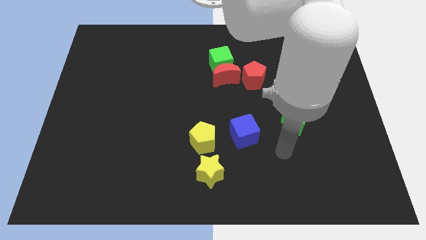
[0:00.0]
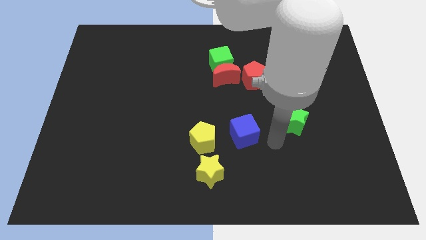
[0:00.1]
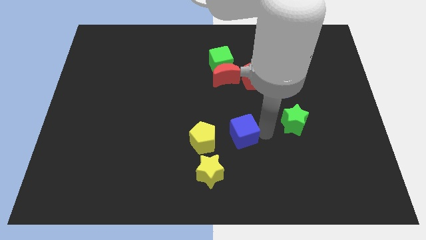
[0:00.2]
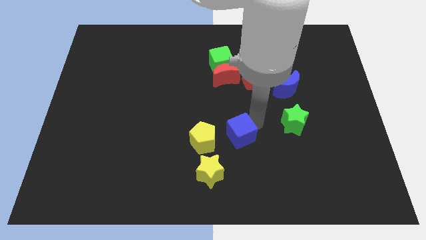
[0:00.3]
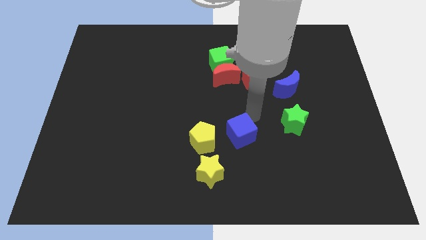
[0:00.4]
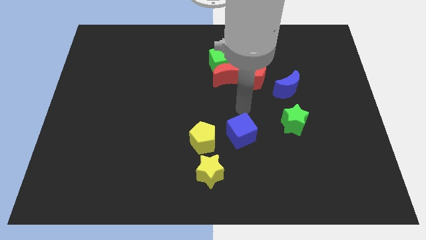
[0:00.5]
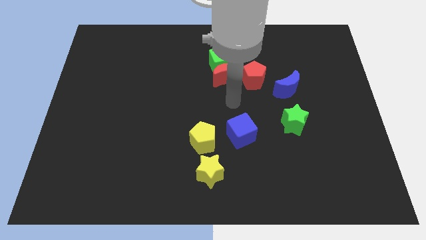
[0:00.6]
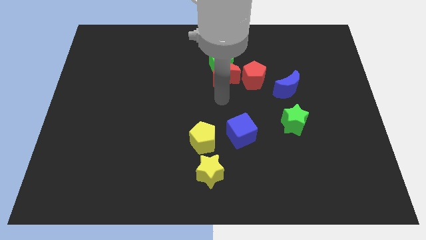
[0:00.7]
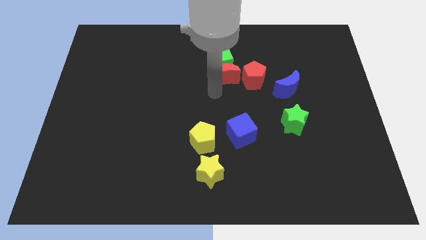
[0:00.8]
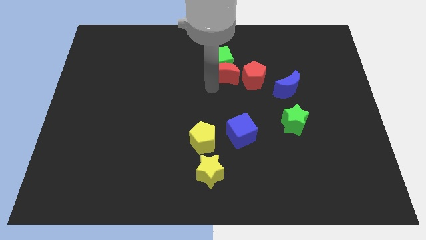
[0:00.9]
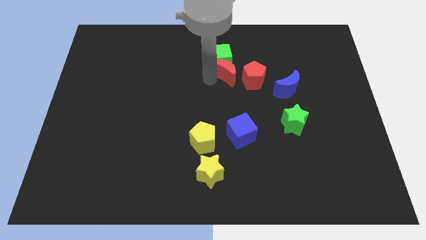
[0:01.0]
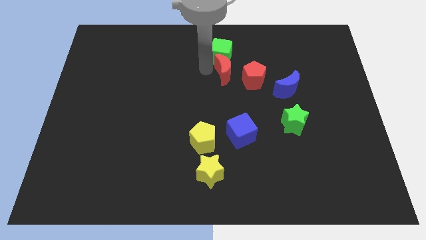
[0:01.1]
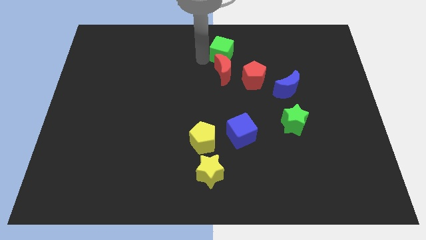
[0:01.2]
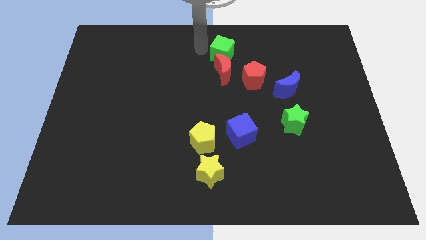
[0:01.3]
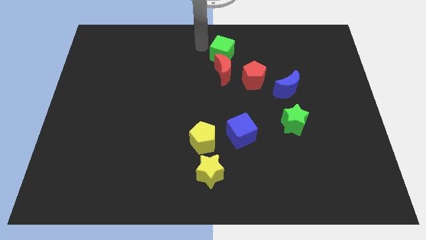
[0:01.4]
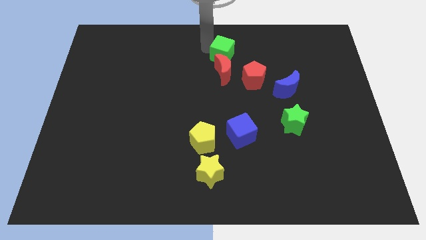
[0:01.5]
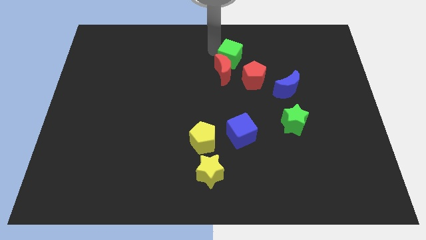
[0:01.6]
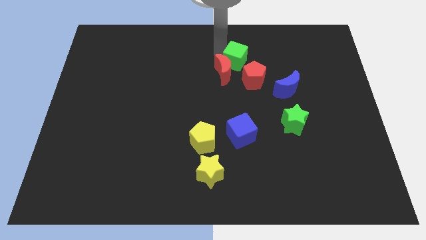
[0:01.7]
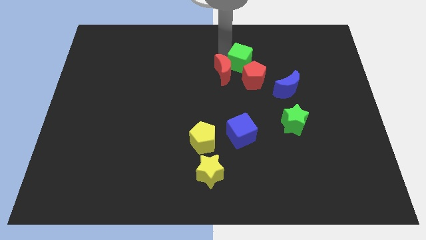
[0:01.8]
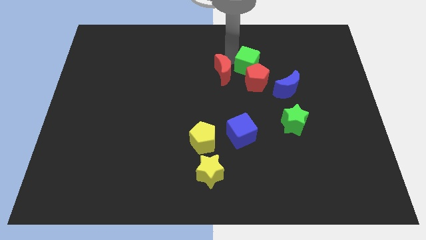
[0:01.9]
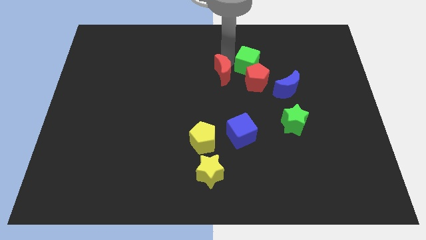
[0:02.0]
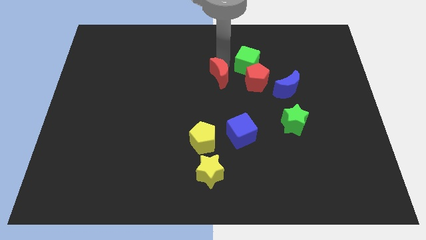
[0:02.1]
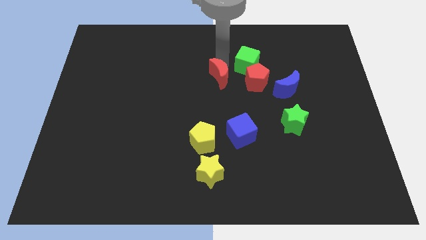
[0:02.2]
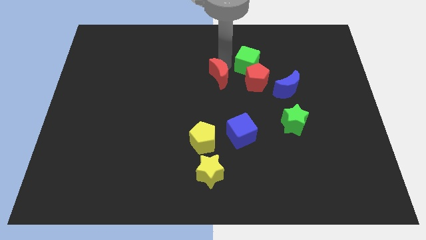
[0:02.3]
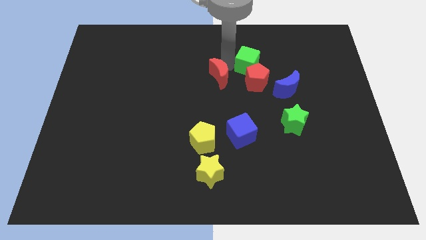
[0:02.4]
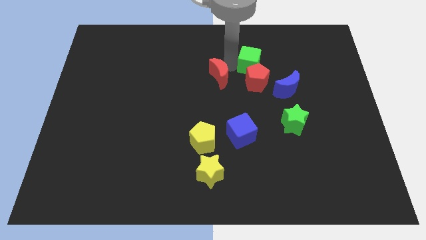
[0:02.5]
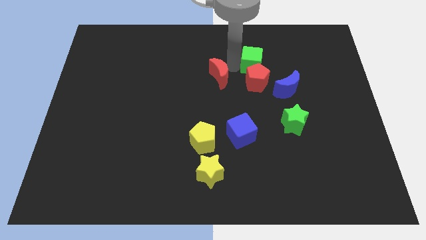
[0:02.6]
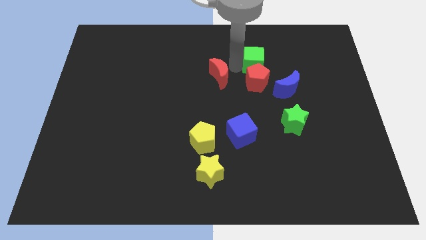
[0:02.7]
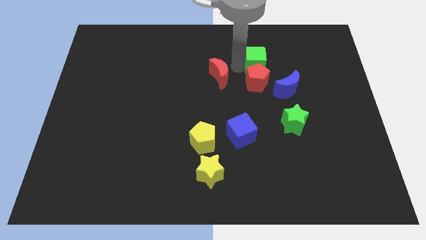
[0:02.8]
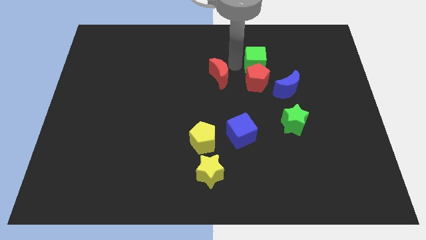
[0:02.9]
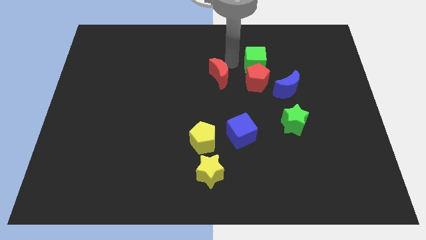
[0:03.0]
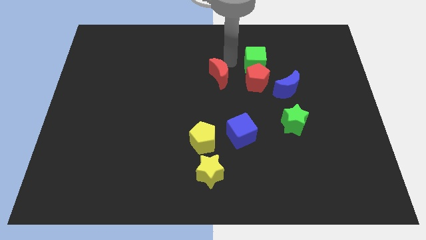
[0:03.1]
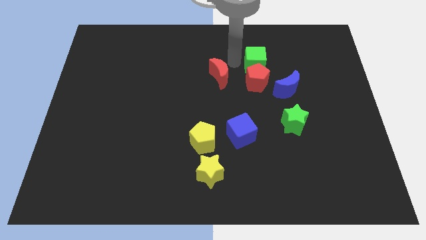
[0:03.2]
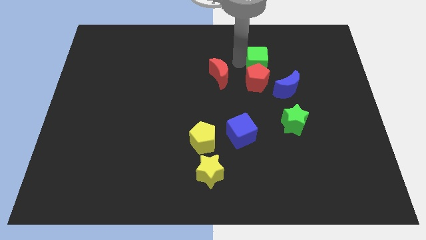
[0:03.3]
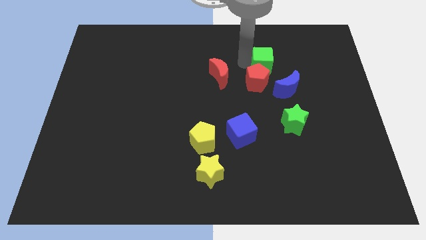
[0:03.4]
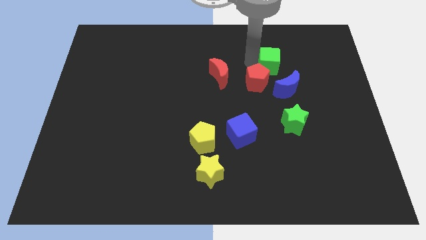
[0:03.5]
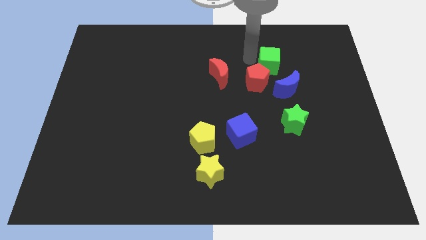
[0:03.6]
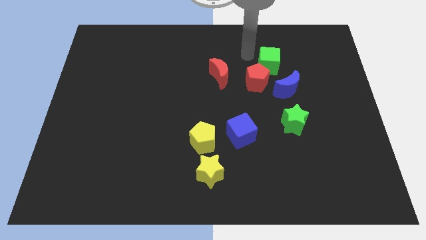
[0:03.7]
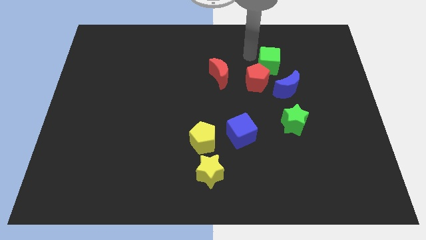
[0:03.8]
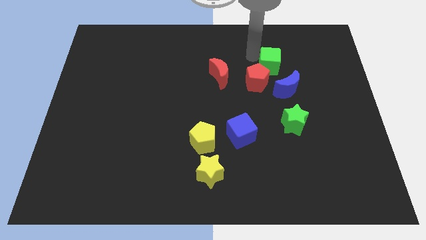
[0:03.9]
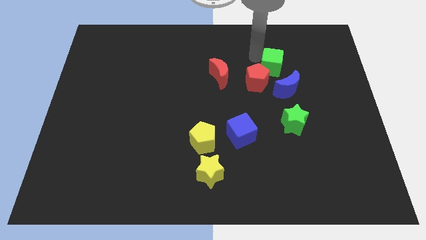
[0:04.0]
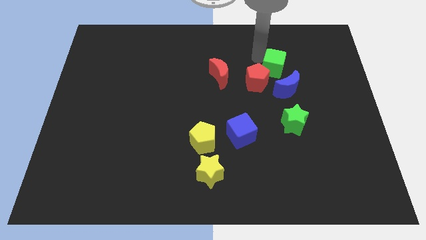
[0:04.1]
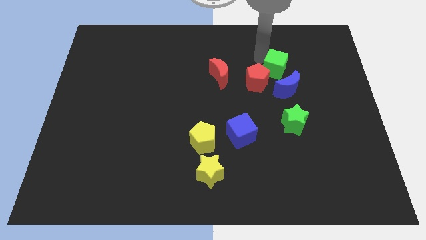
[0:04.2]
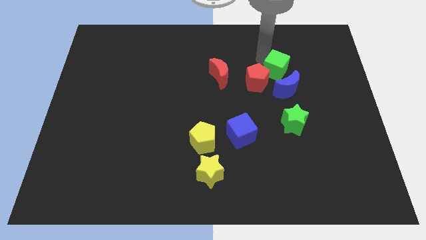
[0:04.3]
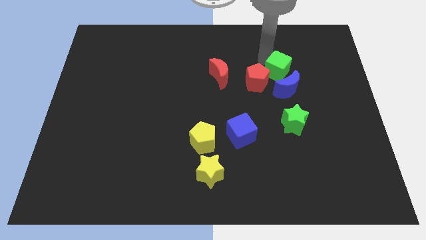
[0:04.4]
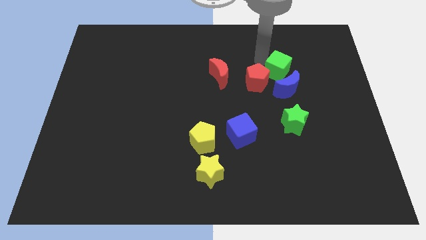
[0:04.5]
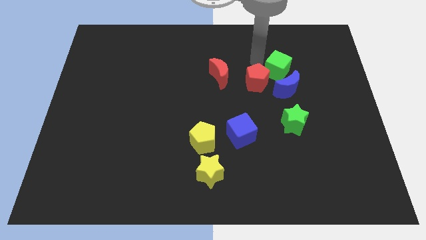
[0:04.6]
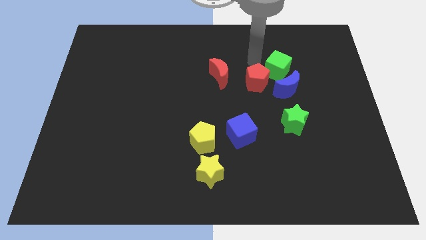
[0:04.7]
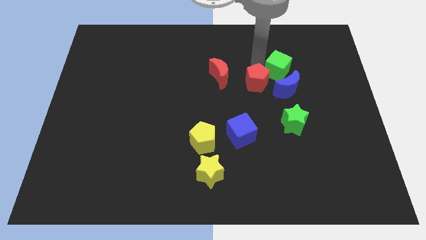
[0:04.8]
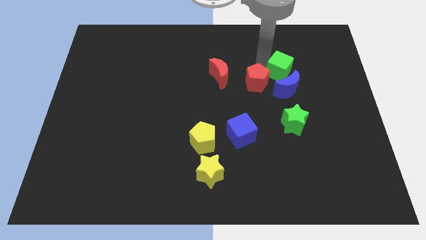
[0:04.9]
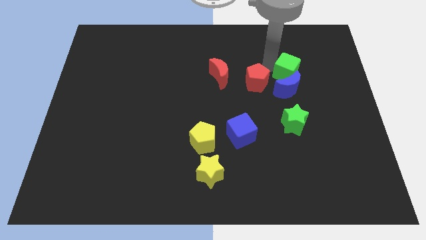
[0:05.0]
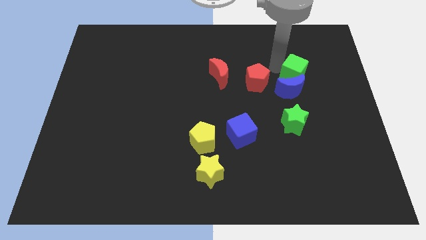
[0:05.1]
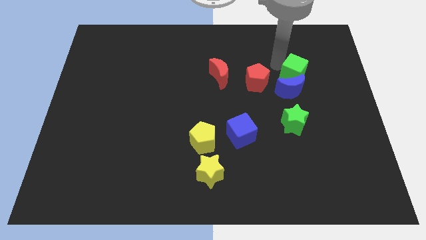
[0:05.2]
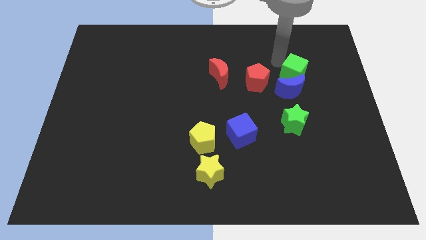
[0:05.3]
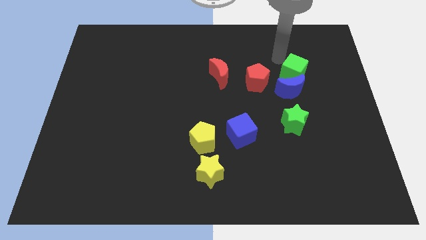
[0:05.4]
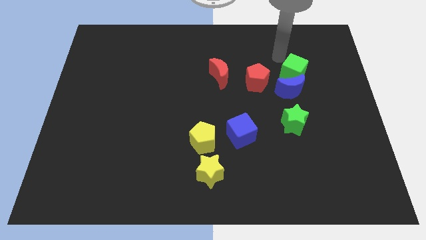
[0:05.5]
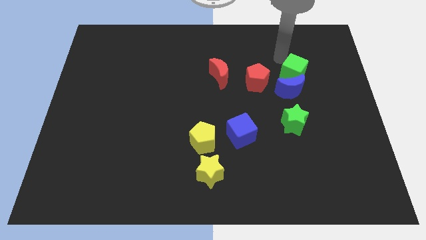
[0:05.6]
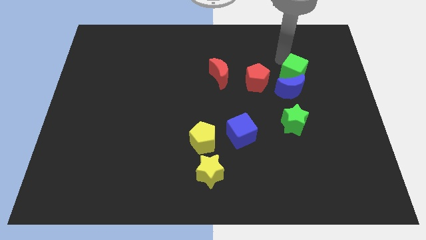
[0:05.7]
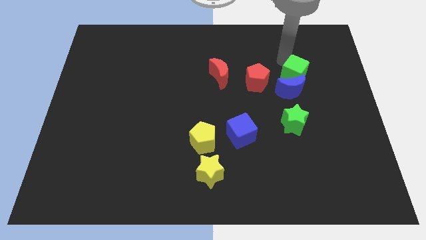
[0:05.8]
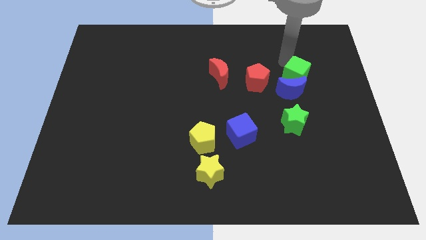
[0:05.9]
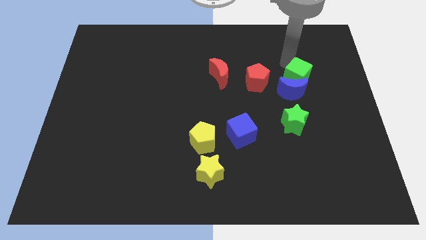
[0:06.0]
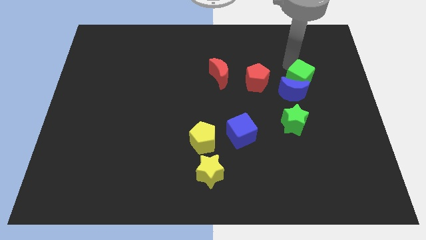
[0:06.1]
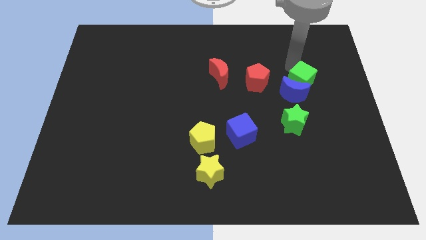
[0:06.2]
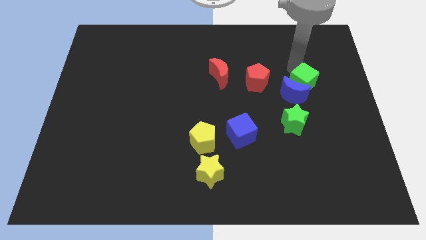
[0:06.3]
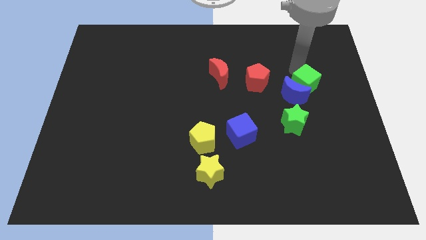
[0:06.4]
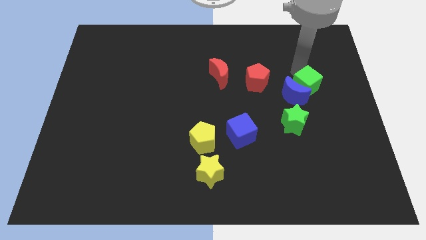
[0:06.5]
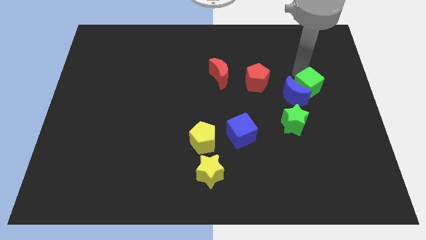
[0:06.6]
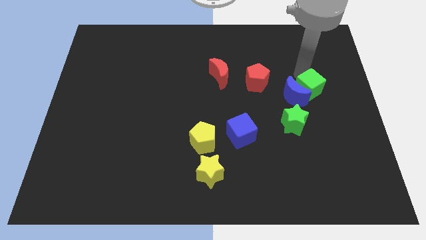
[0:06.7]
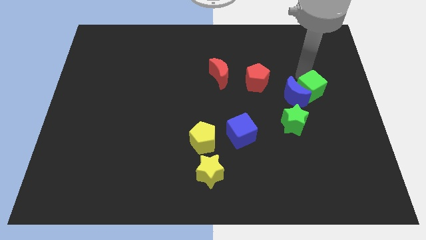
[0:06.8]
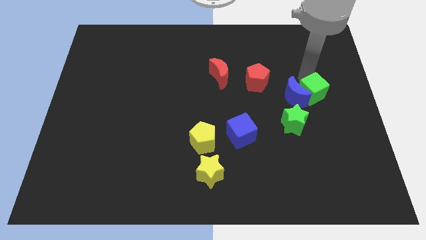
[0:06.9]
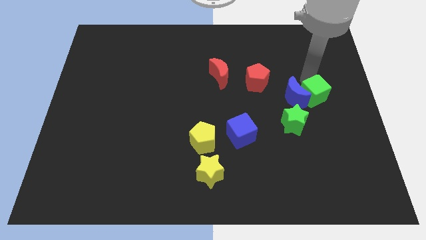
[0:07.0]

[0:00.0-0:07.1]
slide the green cube down and right diagonally

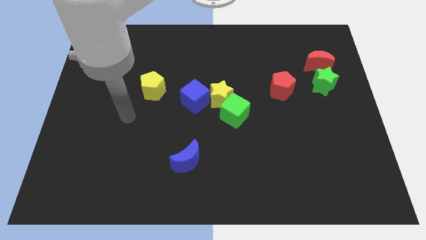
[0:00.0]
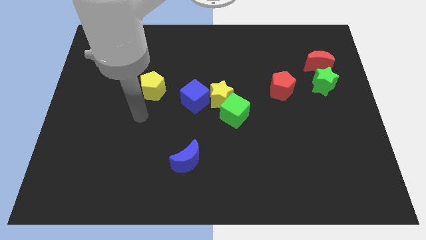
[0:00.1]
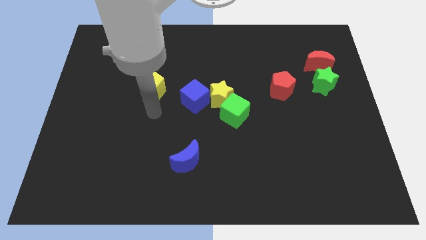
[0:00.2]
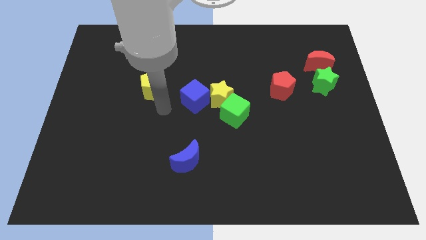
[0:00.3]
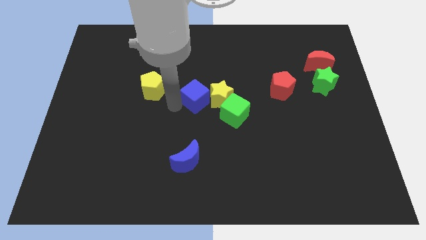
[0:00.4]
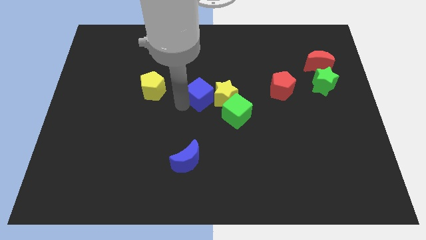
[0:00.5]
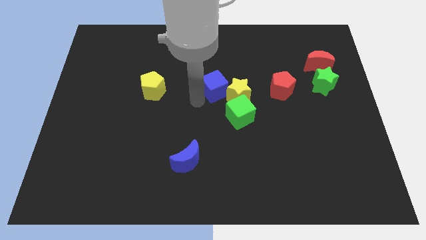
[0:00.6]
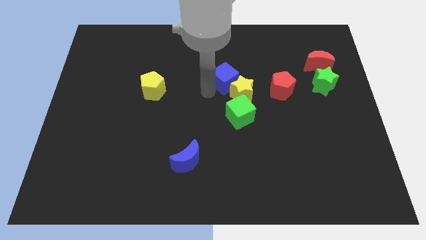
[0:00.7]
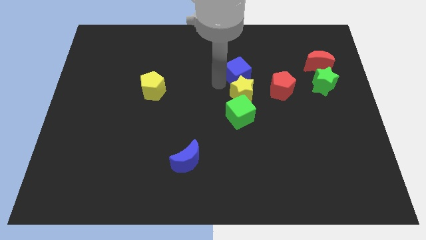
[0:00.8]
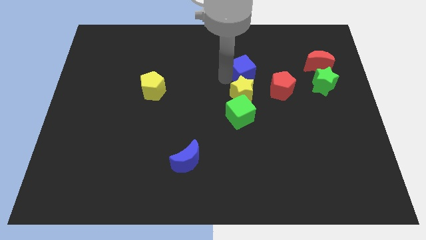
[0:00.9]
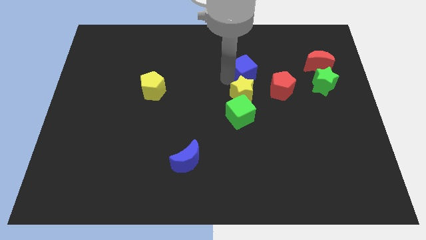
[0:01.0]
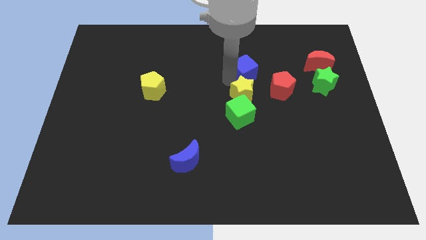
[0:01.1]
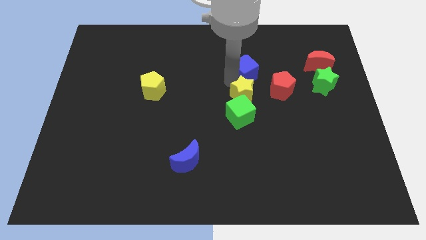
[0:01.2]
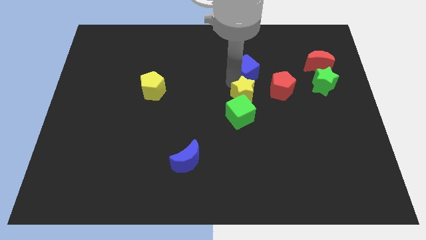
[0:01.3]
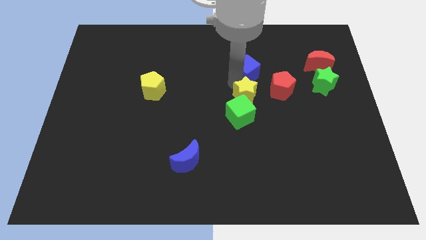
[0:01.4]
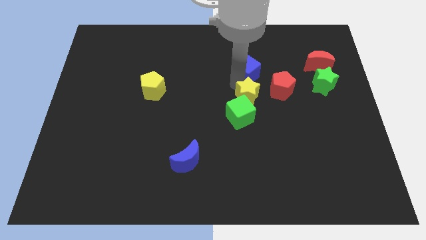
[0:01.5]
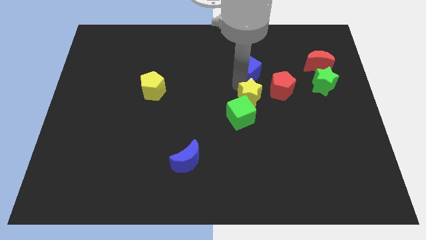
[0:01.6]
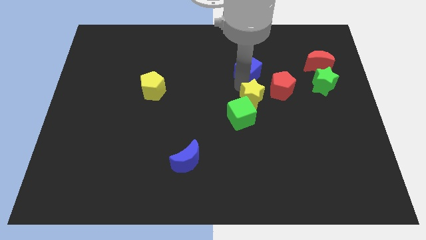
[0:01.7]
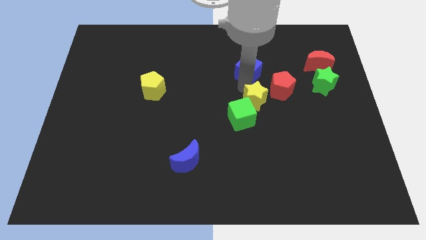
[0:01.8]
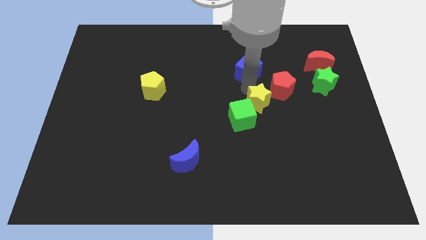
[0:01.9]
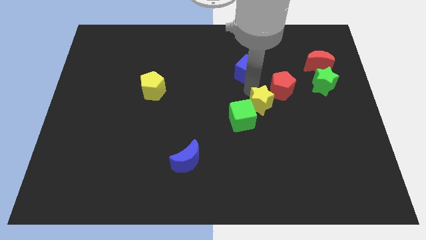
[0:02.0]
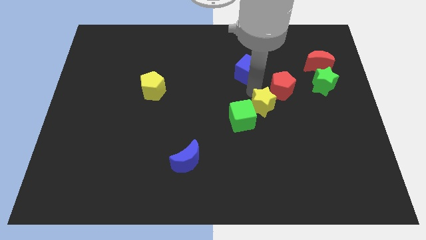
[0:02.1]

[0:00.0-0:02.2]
move the yellow star diagonally down and right slightly
